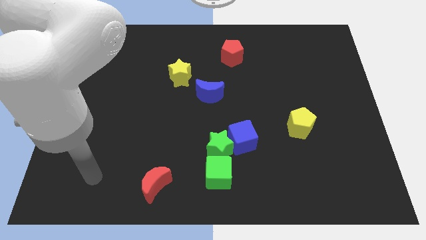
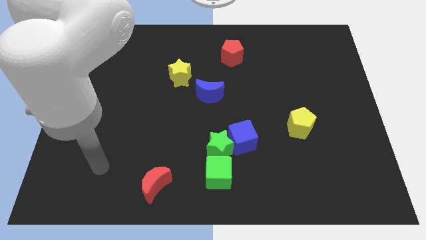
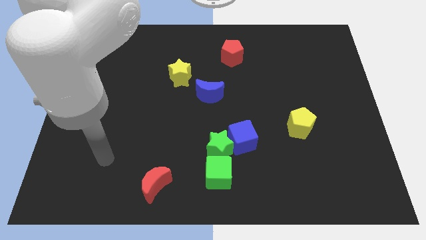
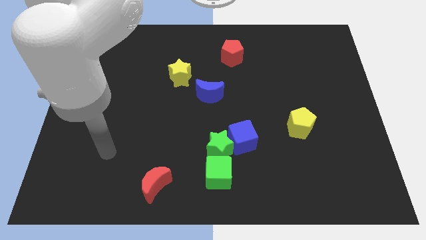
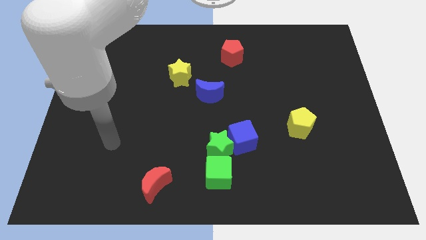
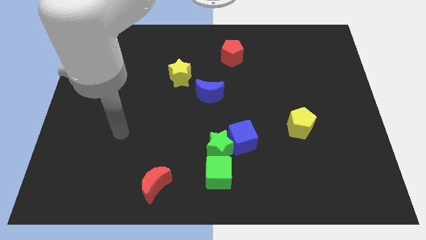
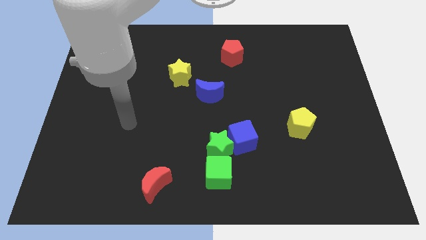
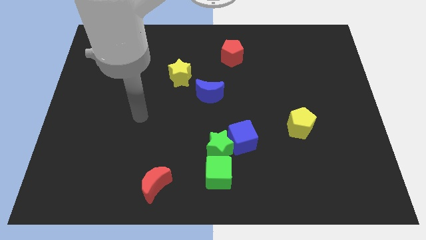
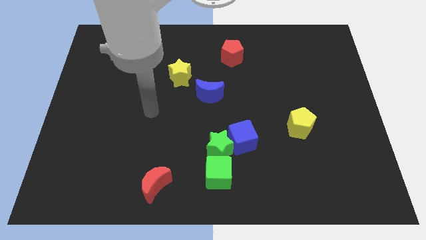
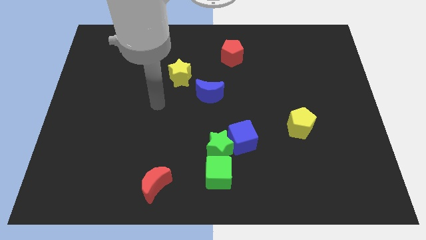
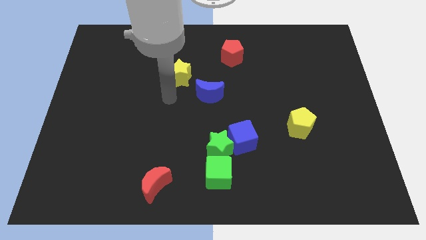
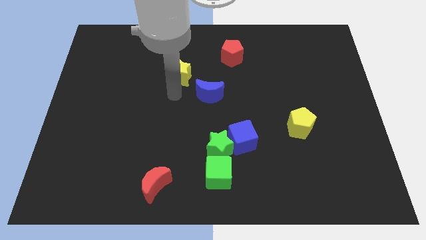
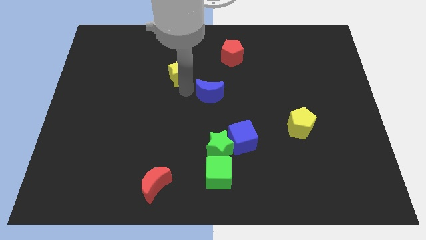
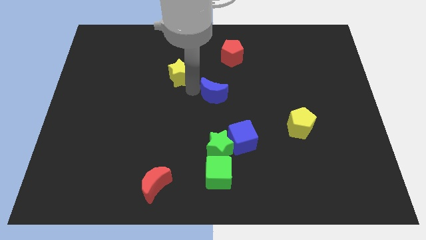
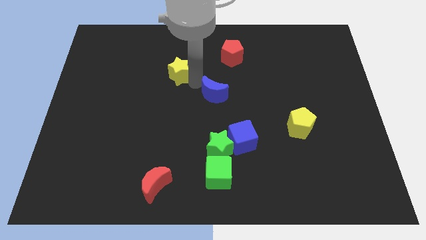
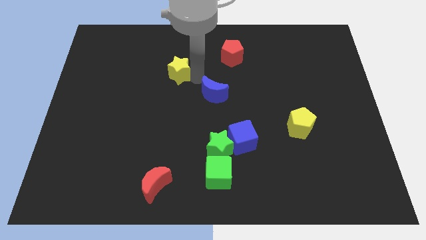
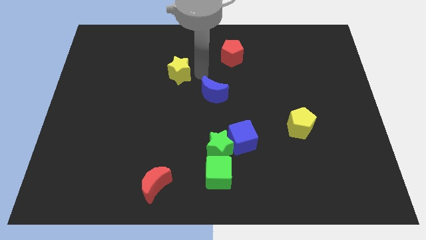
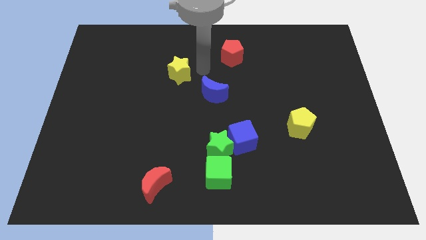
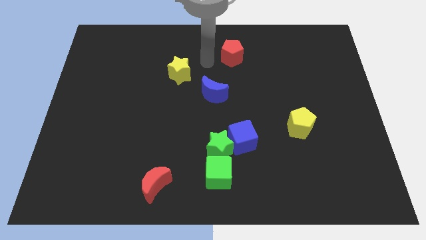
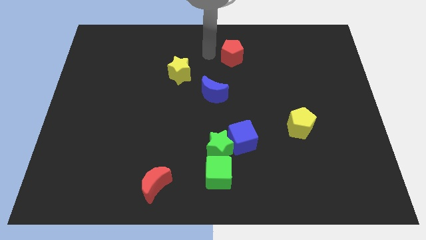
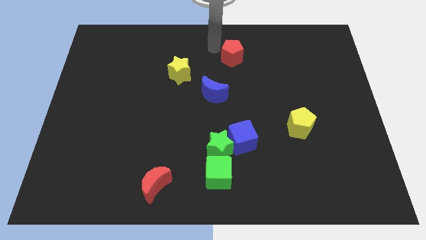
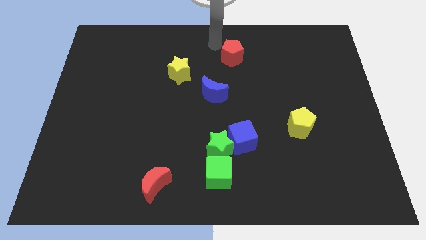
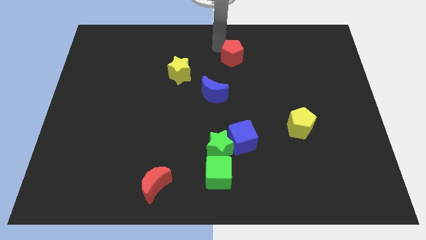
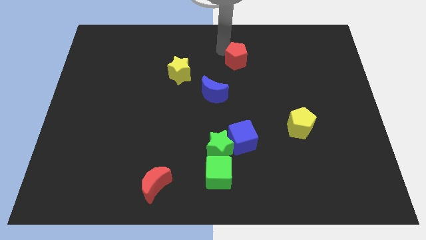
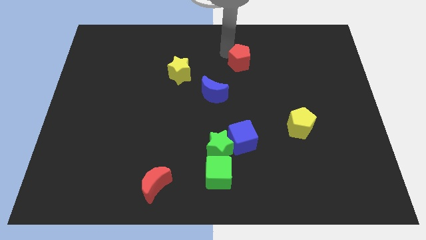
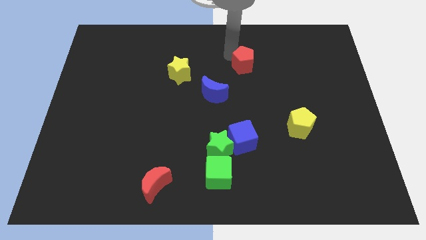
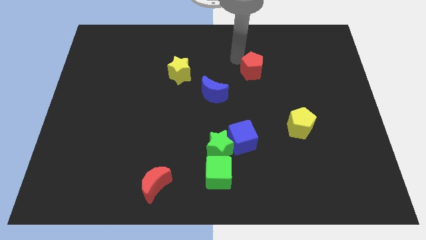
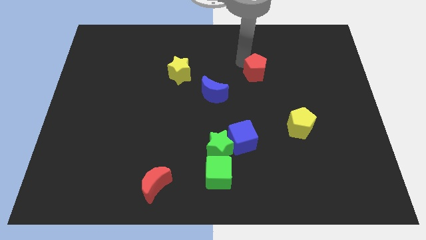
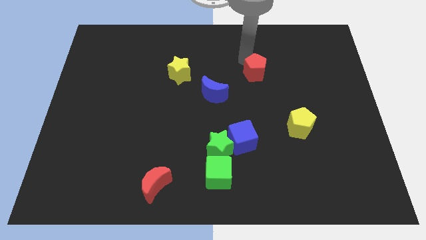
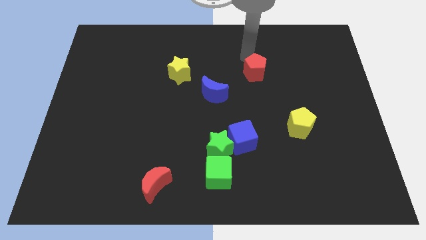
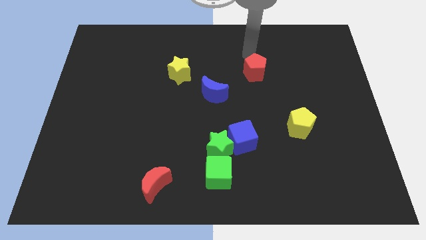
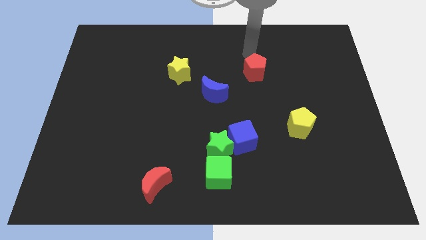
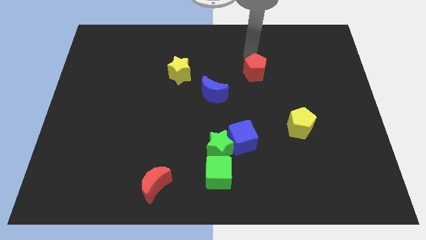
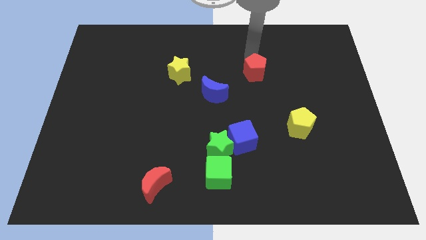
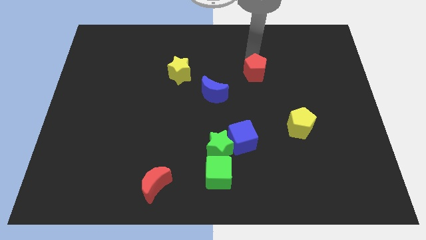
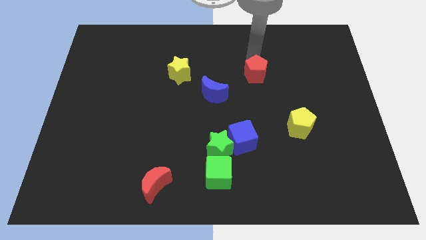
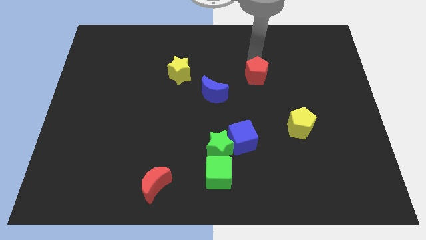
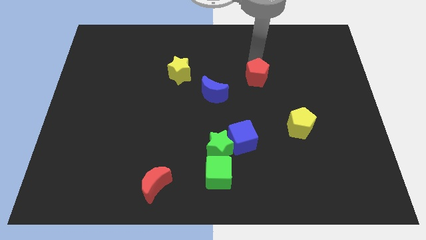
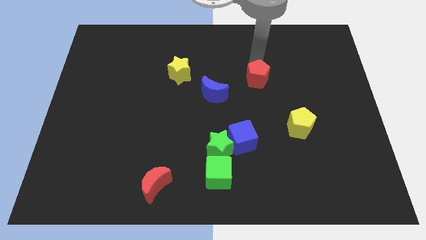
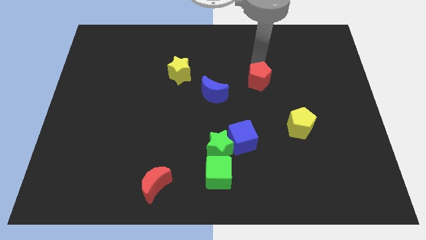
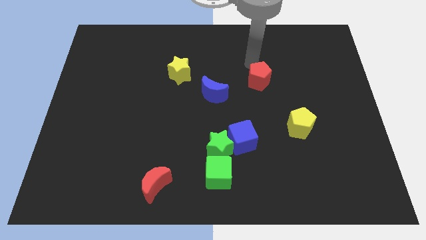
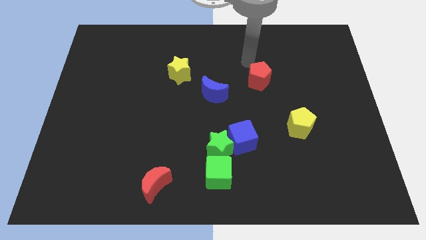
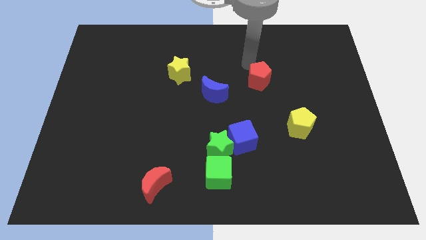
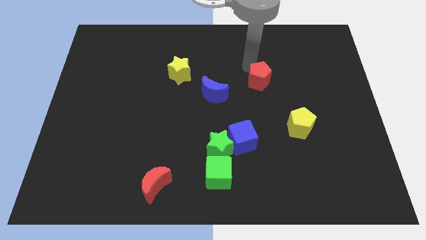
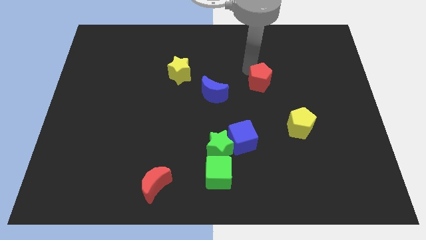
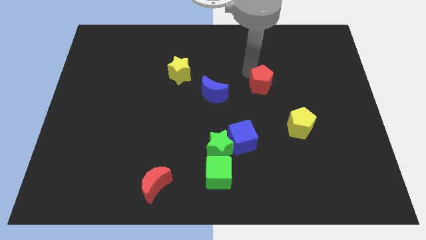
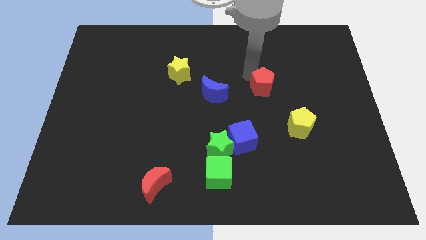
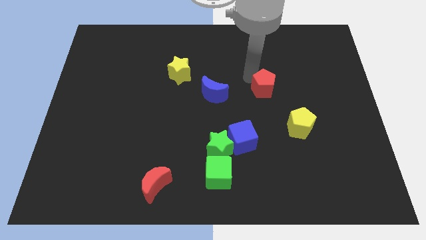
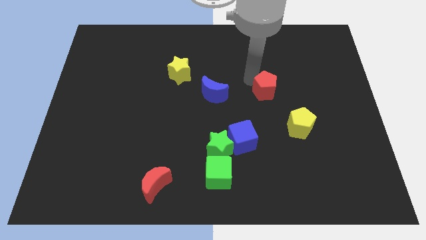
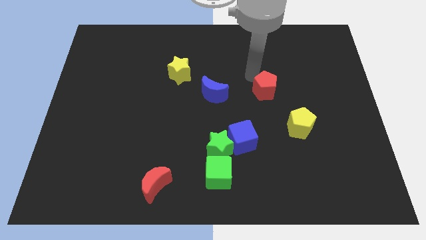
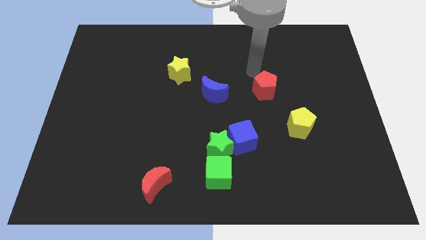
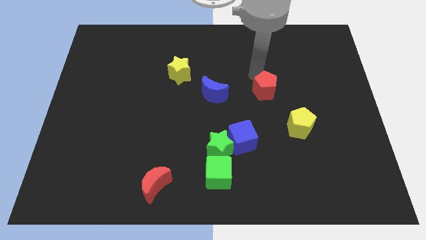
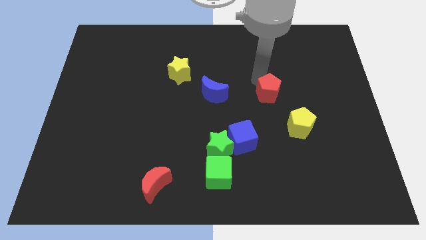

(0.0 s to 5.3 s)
move the red pentagon to the top left of the yellow pentagon

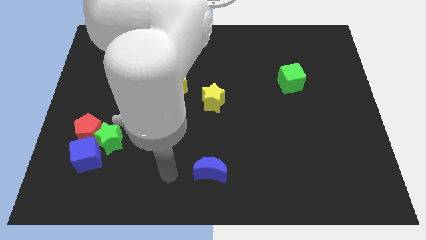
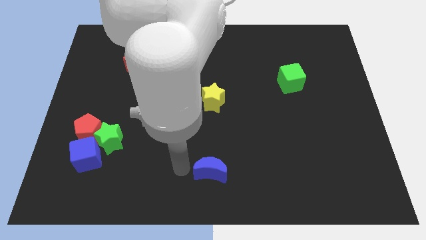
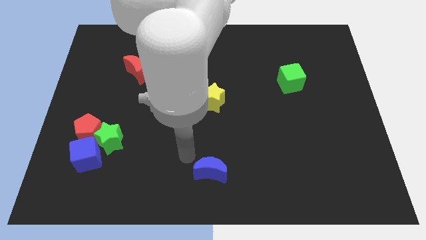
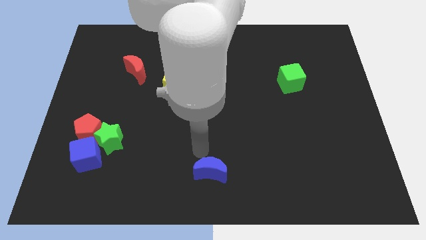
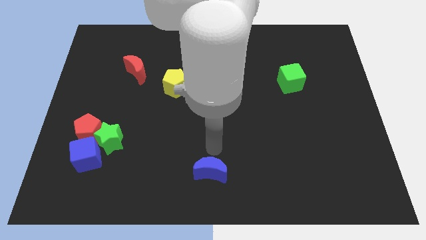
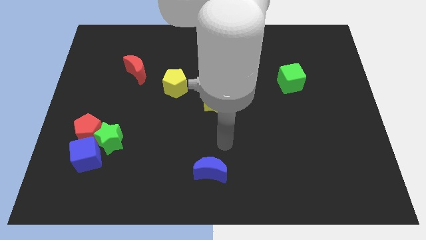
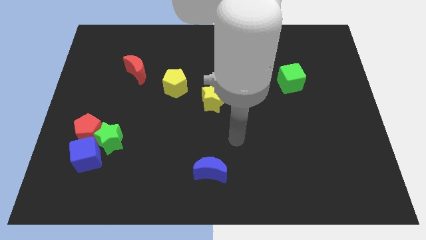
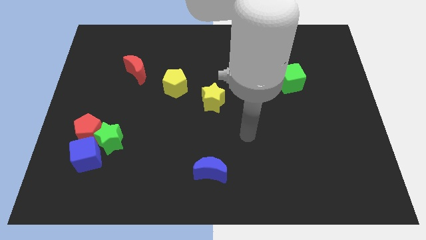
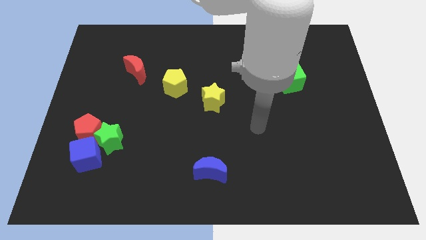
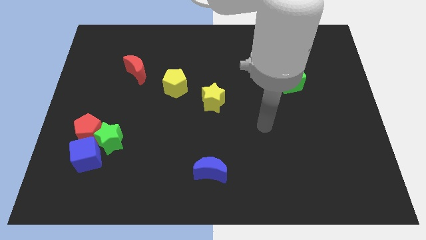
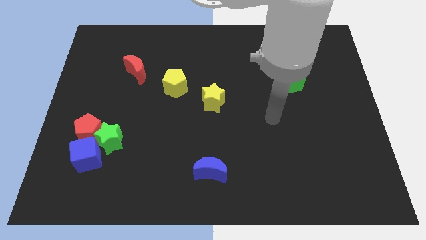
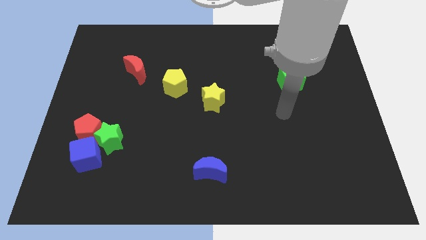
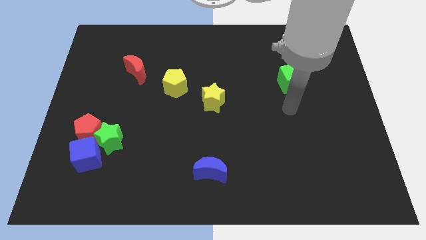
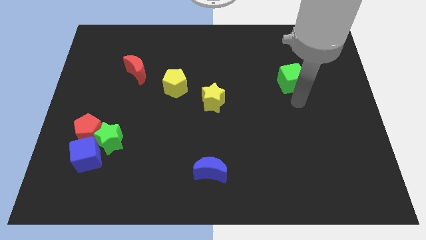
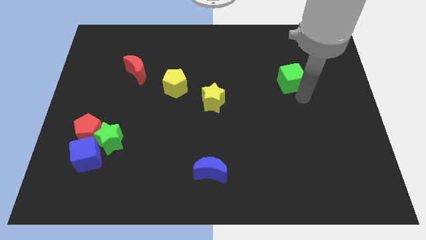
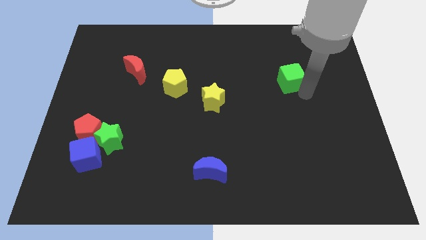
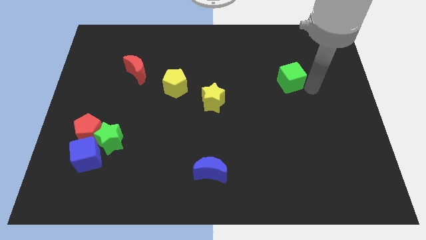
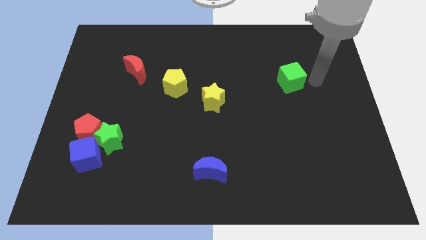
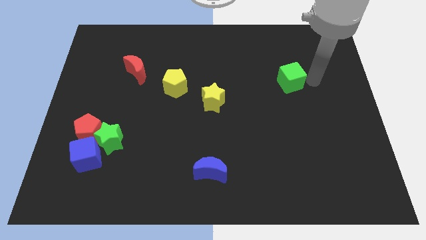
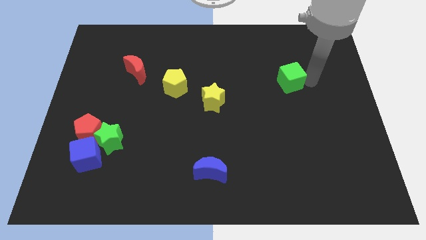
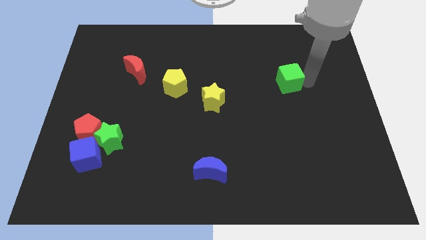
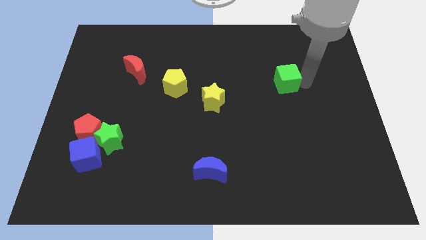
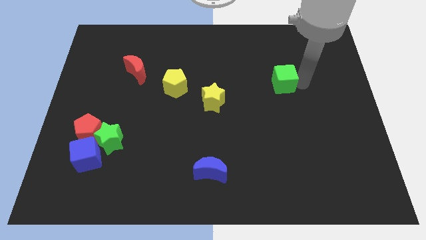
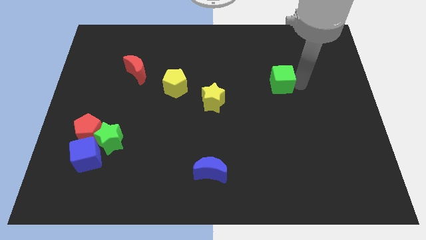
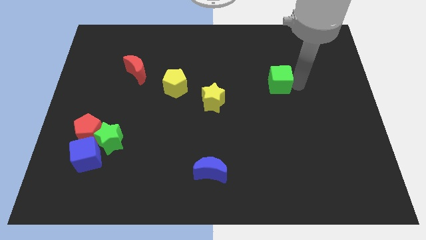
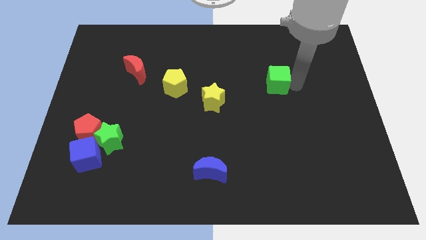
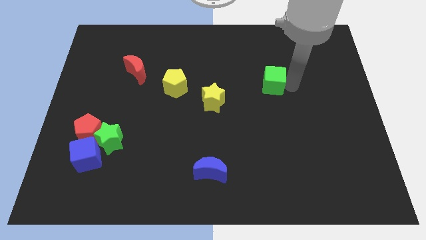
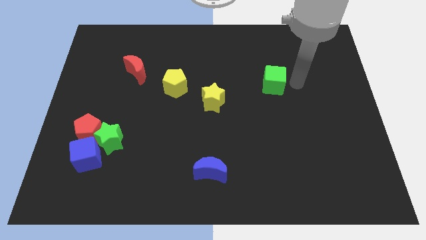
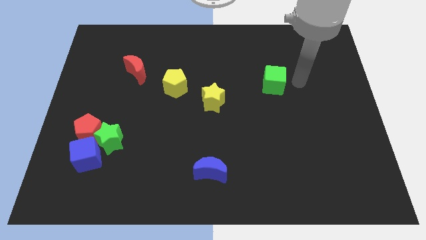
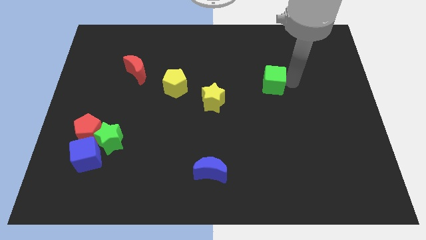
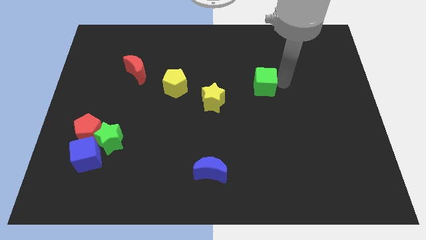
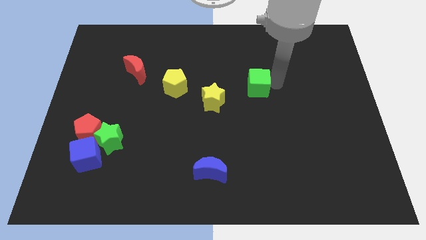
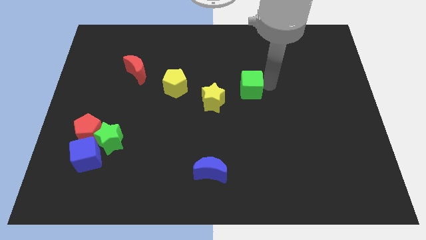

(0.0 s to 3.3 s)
move the green cube to the top right side of the yellow star
